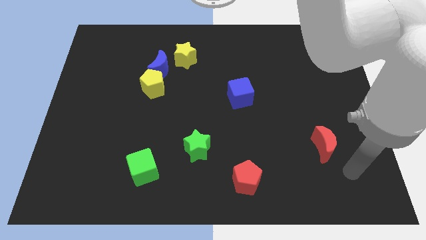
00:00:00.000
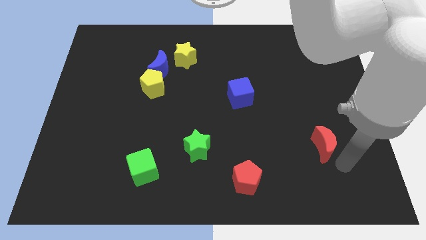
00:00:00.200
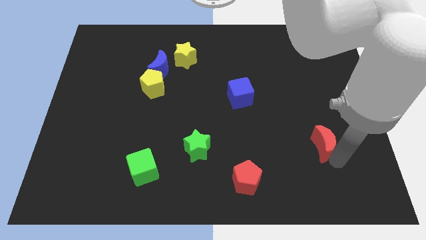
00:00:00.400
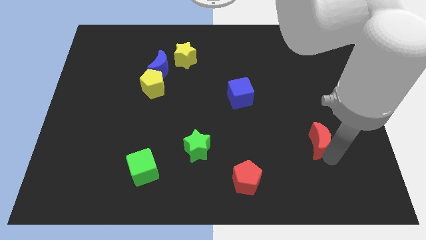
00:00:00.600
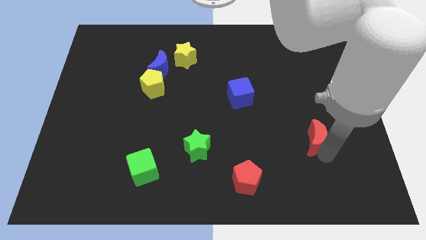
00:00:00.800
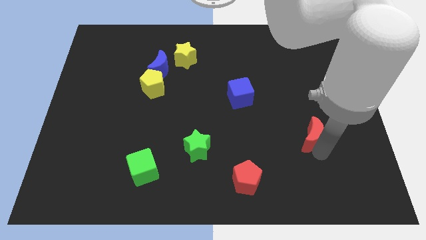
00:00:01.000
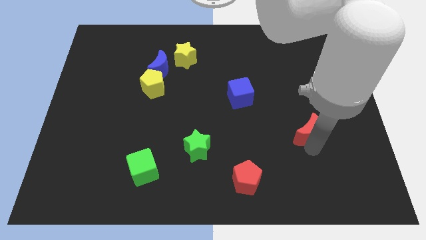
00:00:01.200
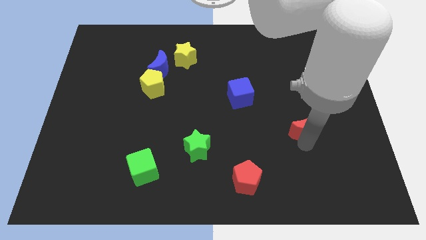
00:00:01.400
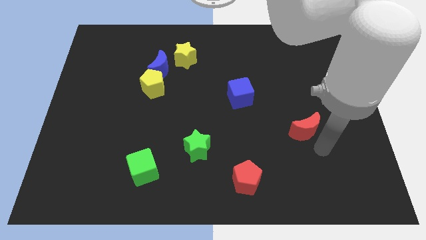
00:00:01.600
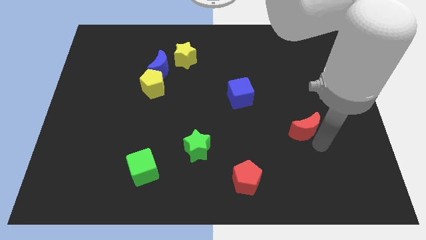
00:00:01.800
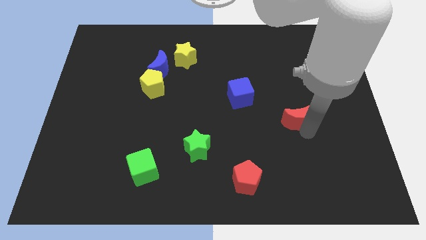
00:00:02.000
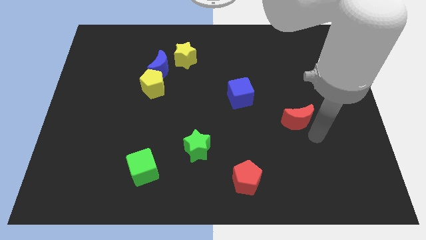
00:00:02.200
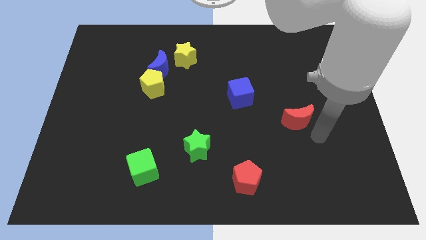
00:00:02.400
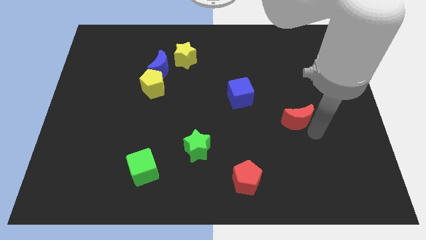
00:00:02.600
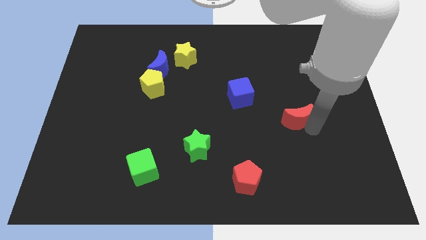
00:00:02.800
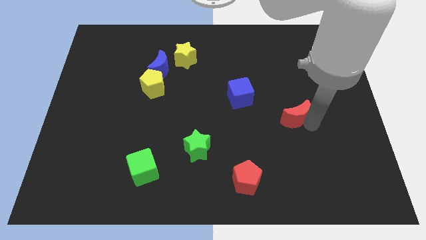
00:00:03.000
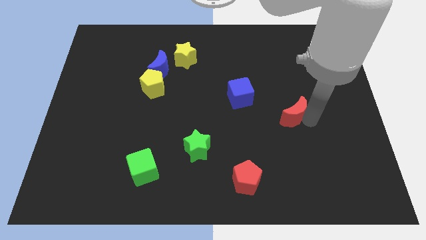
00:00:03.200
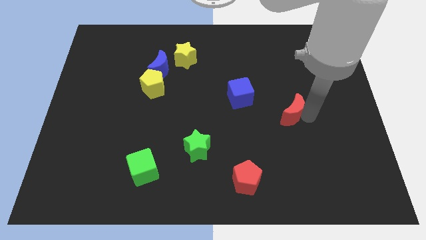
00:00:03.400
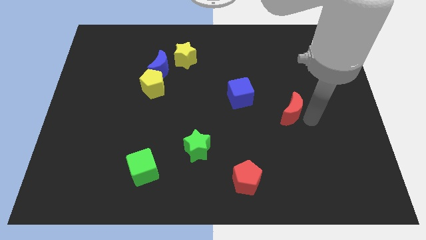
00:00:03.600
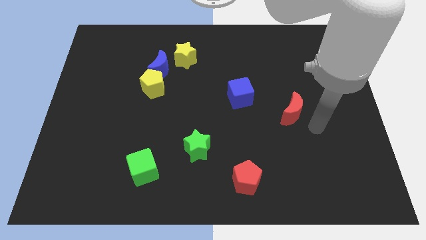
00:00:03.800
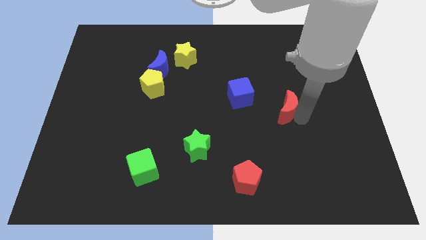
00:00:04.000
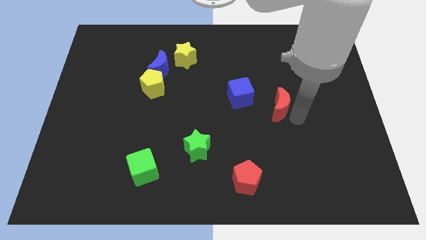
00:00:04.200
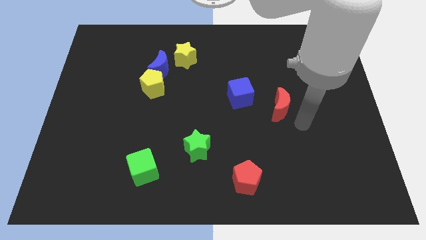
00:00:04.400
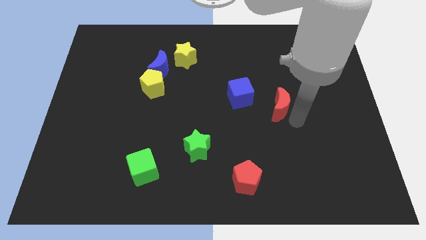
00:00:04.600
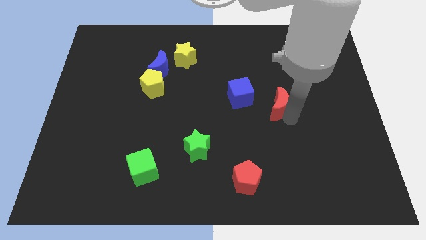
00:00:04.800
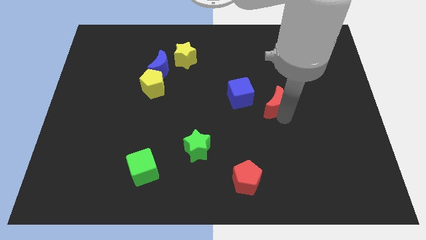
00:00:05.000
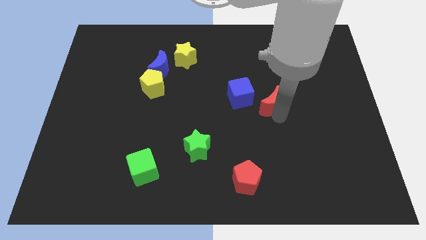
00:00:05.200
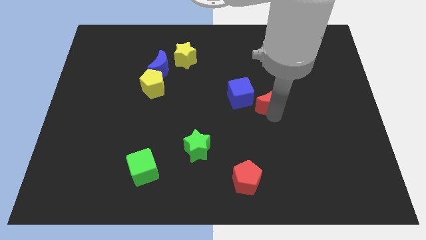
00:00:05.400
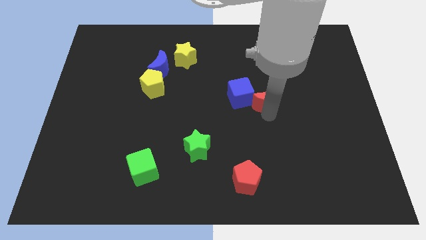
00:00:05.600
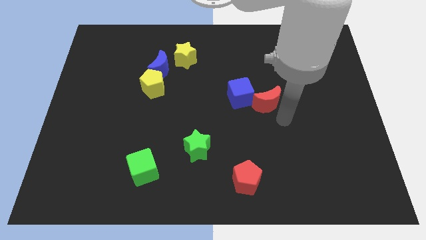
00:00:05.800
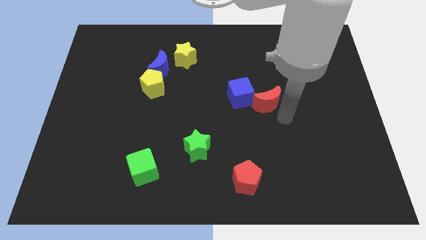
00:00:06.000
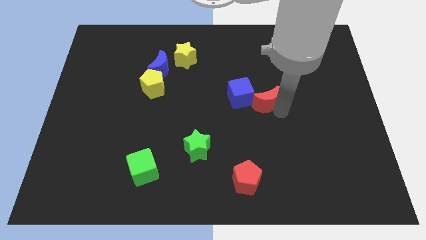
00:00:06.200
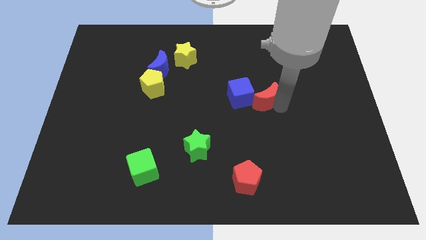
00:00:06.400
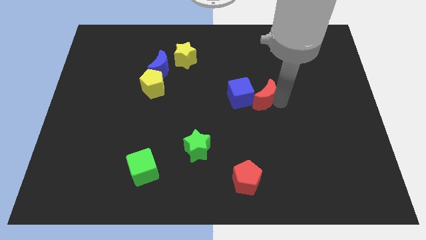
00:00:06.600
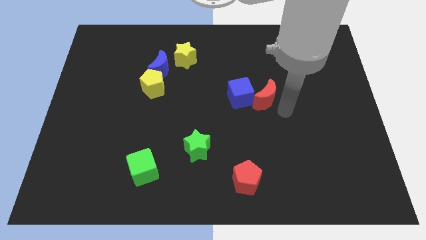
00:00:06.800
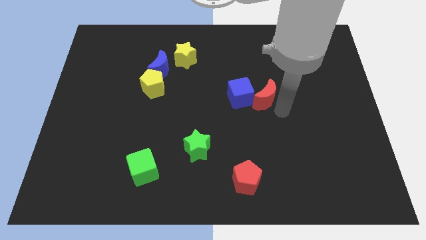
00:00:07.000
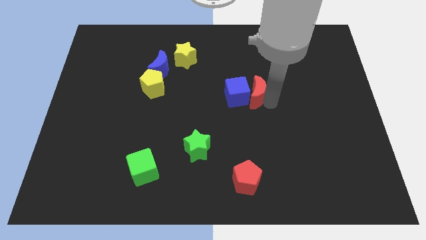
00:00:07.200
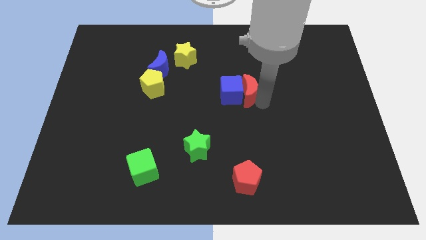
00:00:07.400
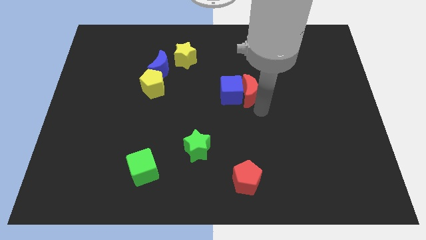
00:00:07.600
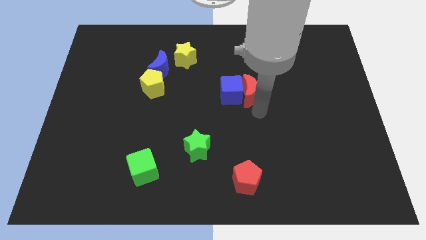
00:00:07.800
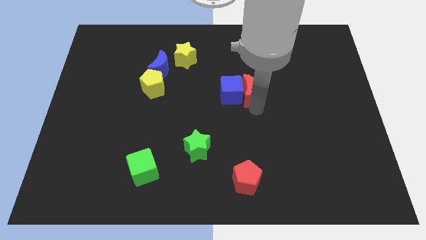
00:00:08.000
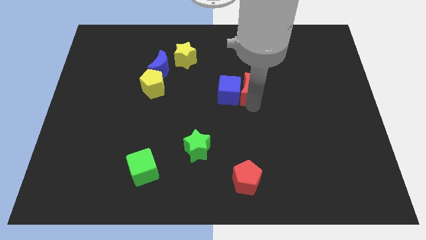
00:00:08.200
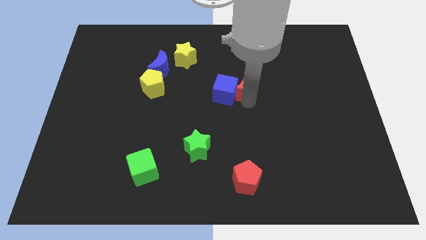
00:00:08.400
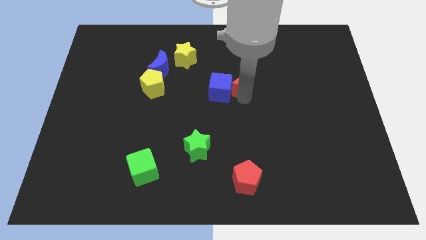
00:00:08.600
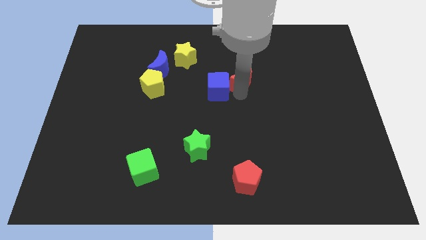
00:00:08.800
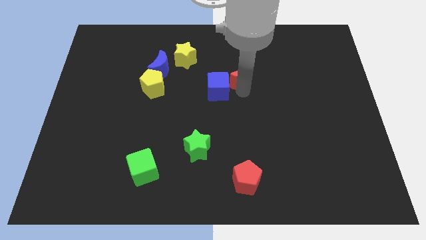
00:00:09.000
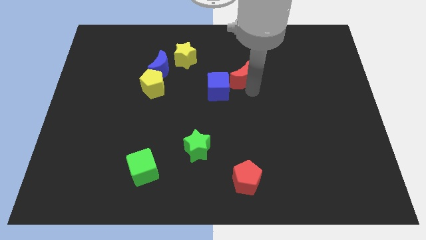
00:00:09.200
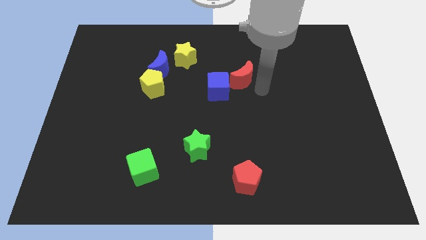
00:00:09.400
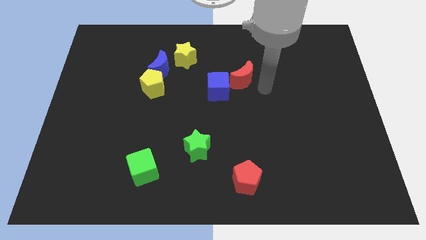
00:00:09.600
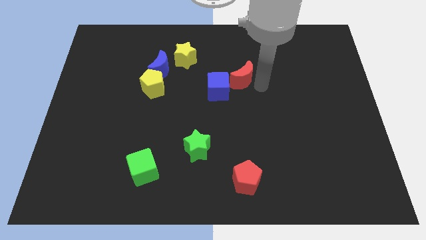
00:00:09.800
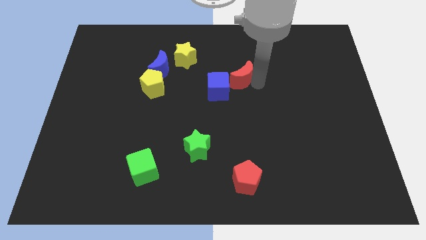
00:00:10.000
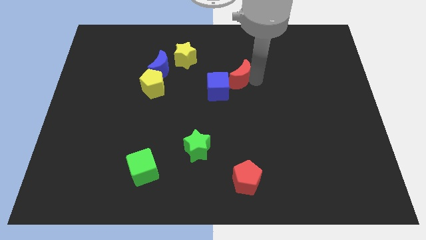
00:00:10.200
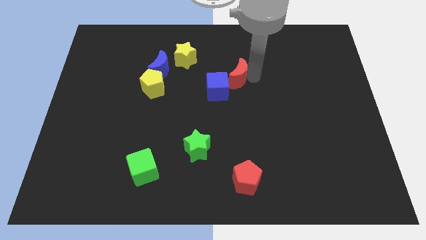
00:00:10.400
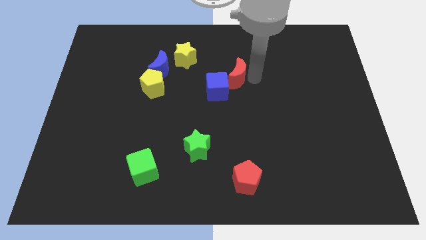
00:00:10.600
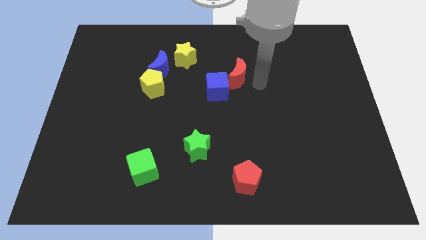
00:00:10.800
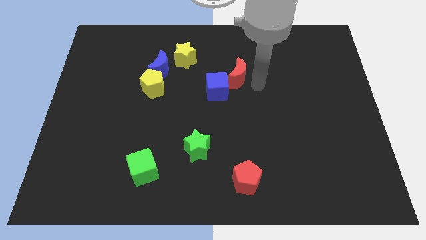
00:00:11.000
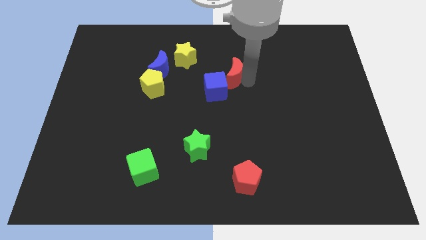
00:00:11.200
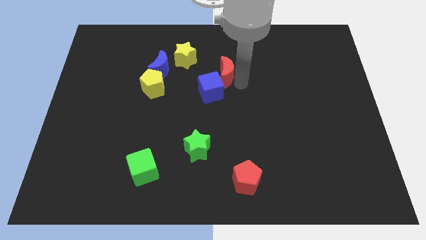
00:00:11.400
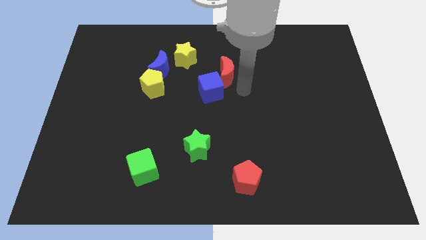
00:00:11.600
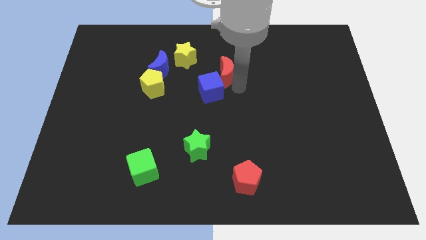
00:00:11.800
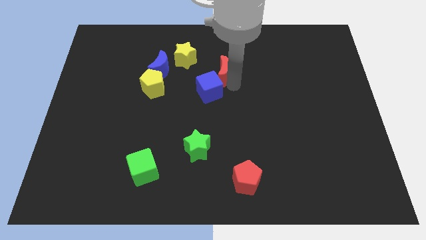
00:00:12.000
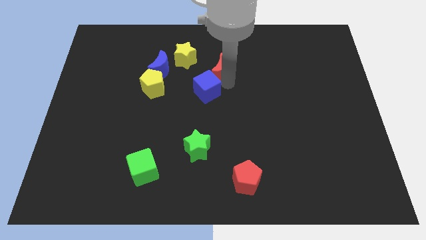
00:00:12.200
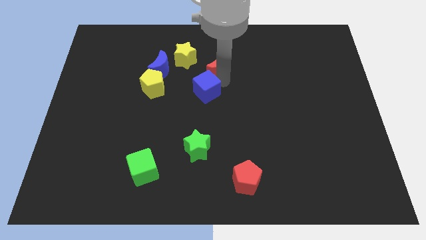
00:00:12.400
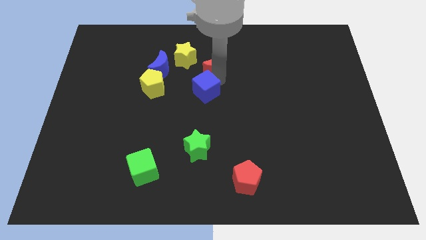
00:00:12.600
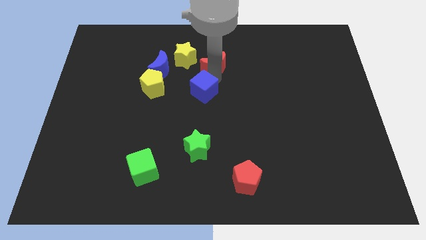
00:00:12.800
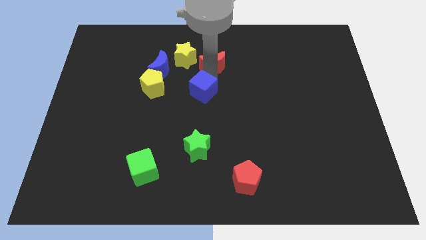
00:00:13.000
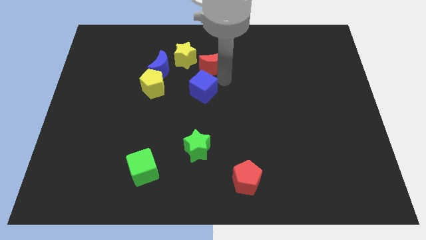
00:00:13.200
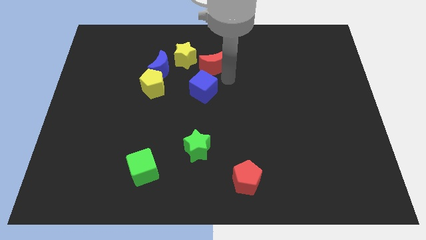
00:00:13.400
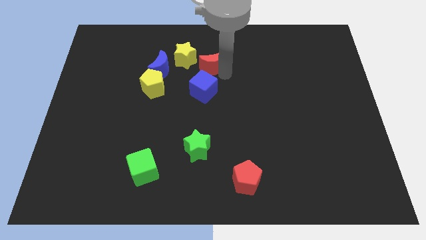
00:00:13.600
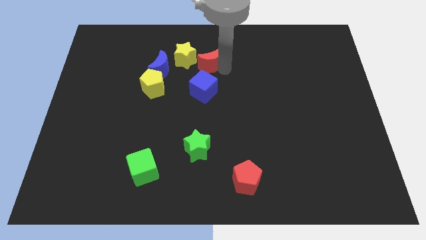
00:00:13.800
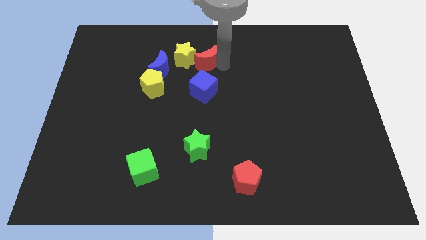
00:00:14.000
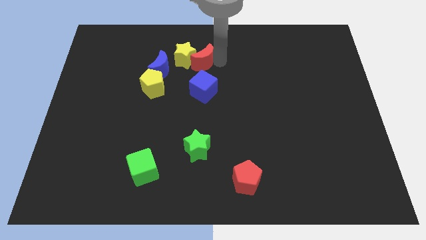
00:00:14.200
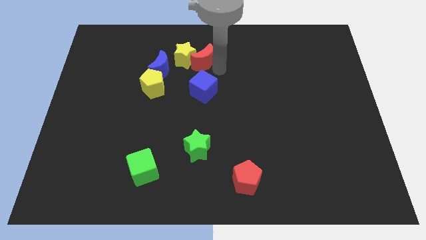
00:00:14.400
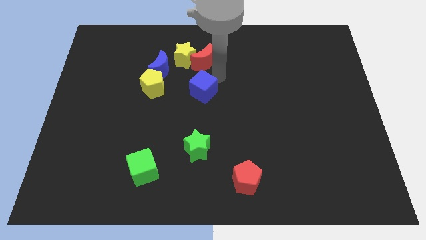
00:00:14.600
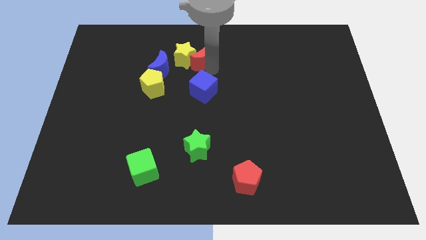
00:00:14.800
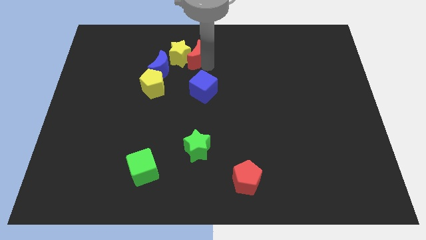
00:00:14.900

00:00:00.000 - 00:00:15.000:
put the red moon to the top right of the blue moon
